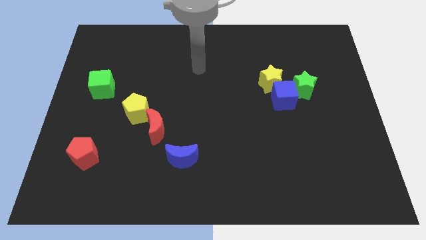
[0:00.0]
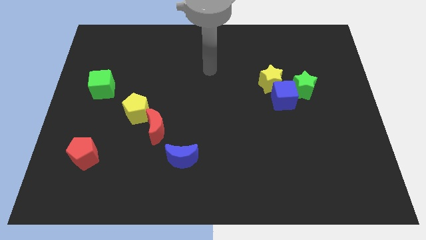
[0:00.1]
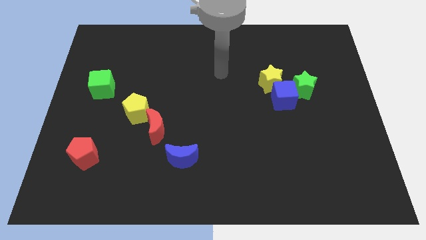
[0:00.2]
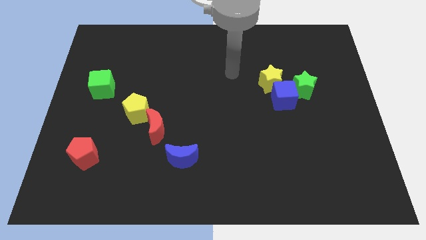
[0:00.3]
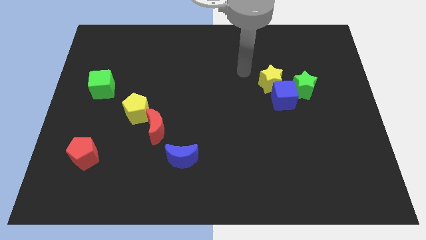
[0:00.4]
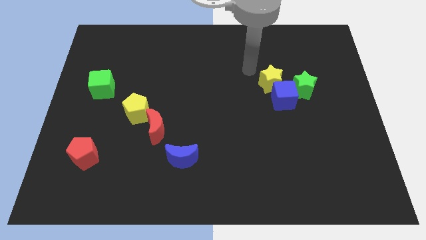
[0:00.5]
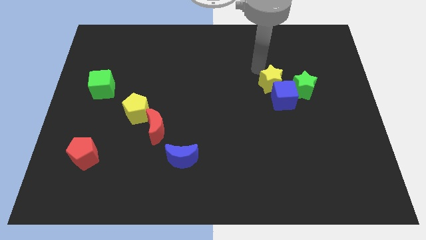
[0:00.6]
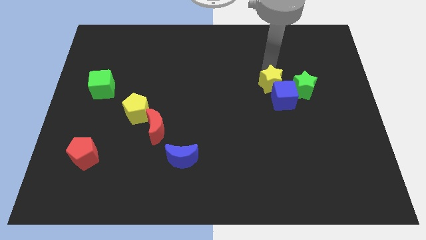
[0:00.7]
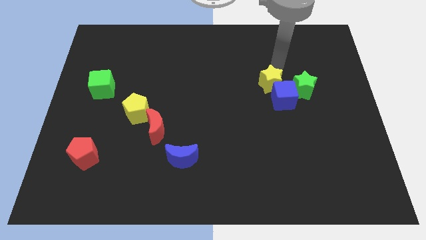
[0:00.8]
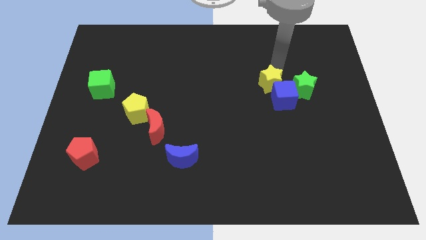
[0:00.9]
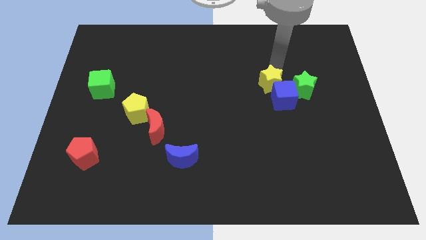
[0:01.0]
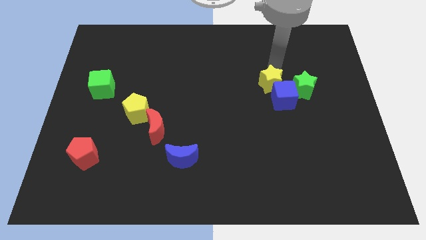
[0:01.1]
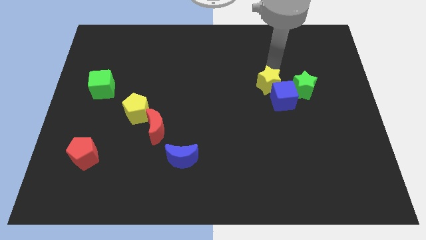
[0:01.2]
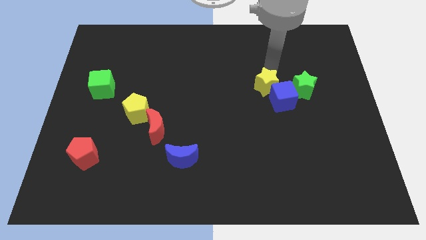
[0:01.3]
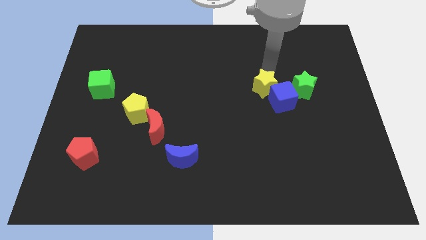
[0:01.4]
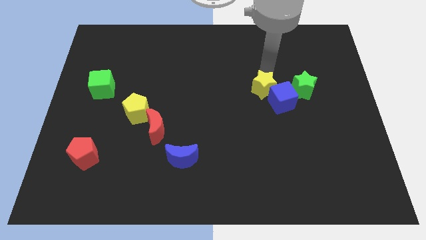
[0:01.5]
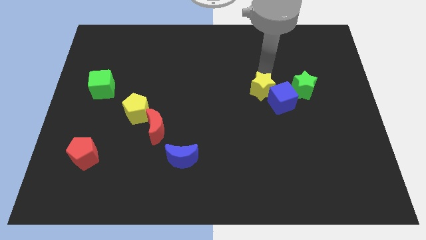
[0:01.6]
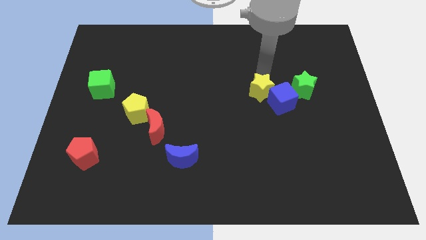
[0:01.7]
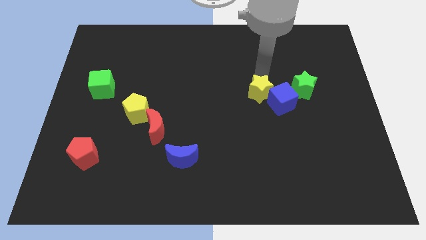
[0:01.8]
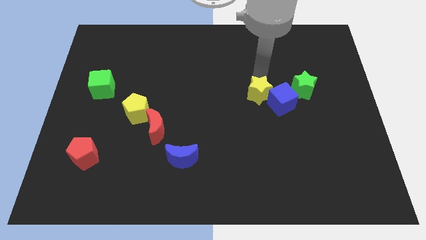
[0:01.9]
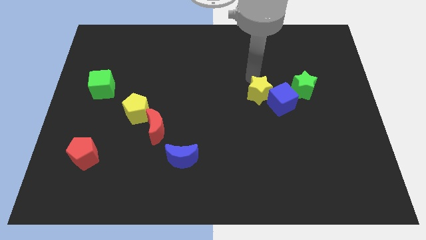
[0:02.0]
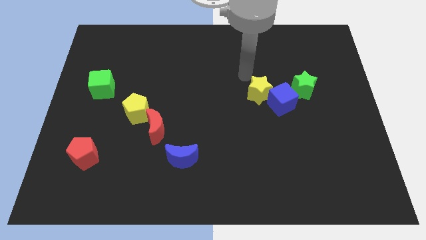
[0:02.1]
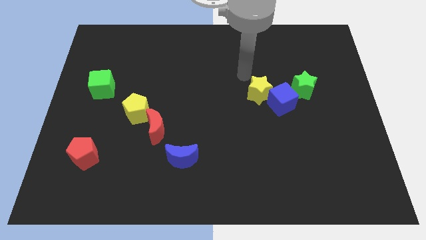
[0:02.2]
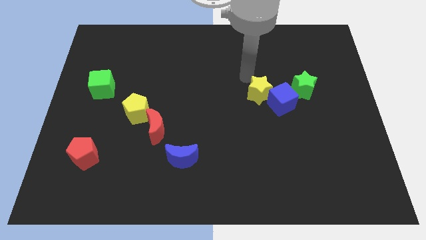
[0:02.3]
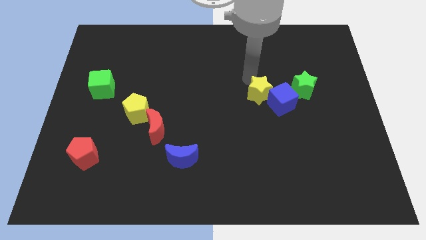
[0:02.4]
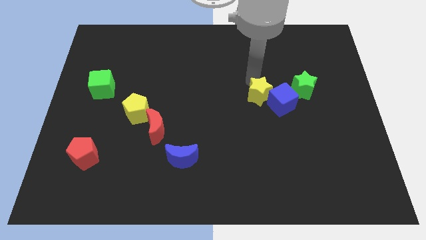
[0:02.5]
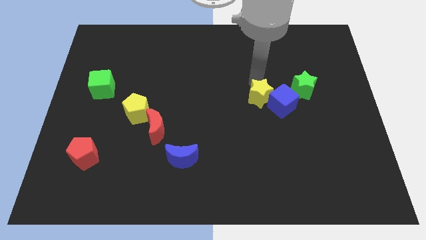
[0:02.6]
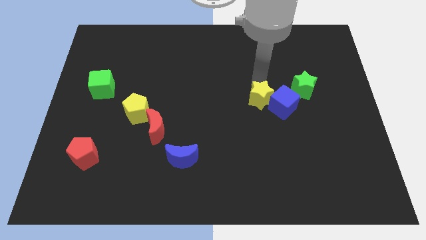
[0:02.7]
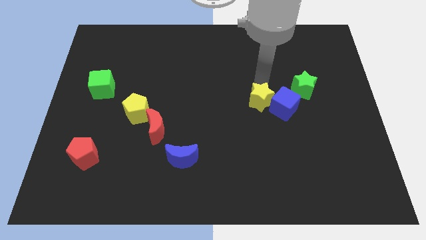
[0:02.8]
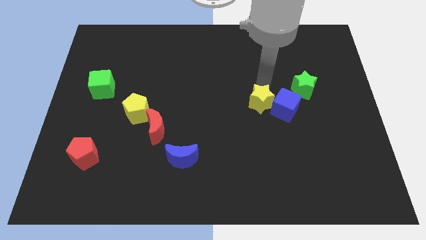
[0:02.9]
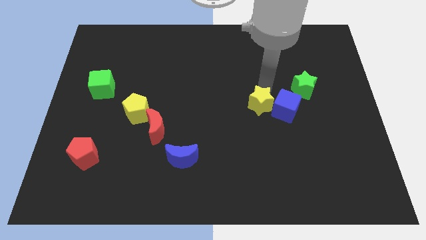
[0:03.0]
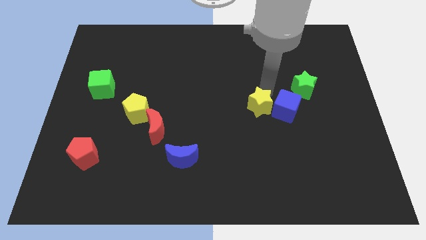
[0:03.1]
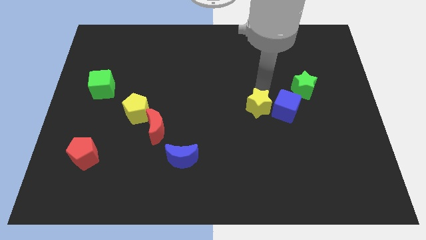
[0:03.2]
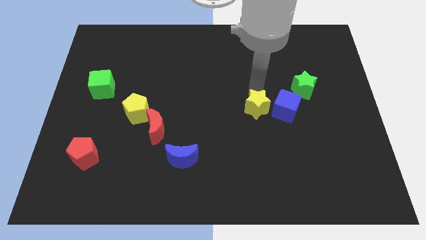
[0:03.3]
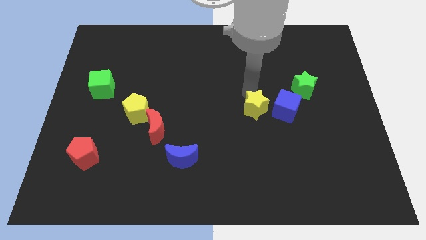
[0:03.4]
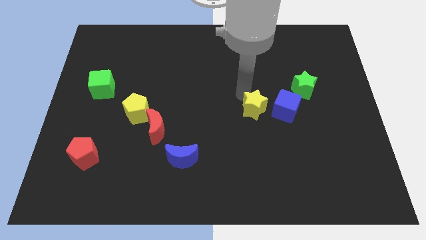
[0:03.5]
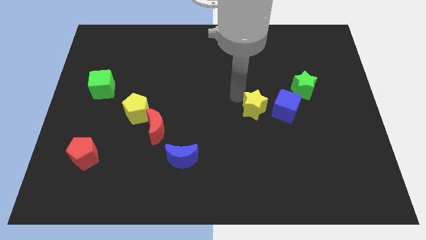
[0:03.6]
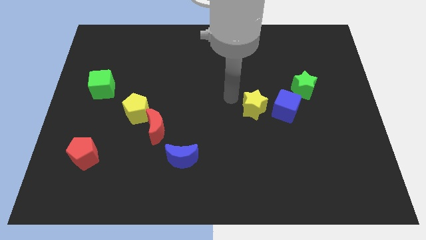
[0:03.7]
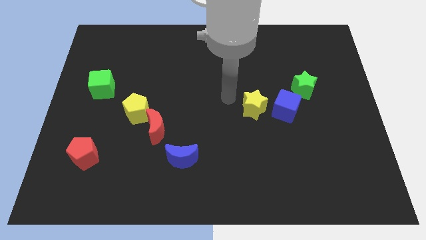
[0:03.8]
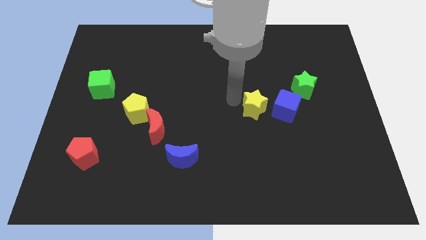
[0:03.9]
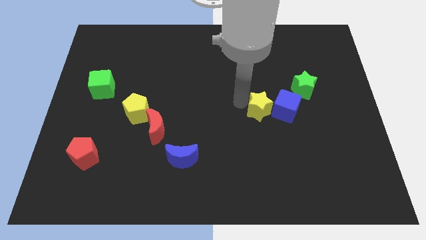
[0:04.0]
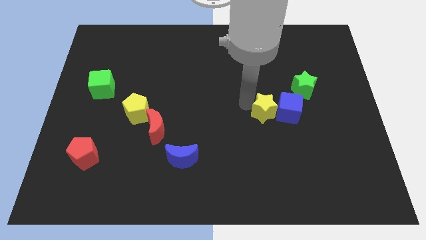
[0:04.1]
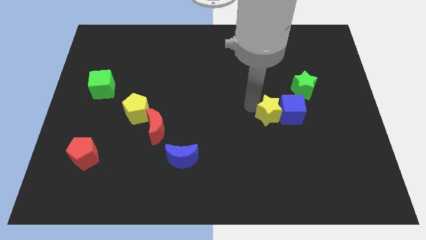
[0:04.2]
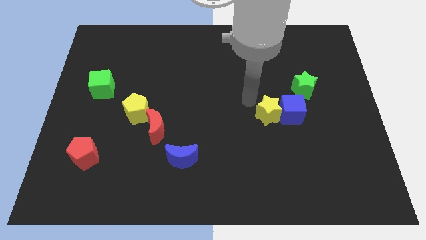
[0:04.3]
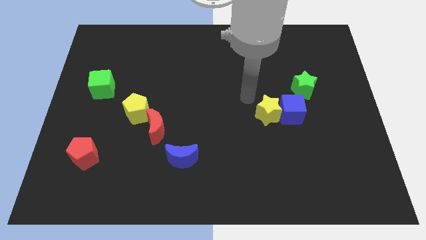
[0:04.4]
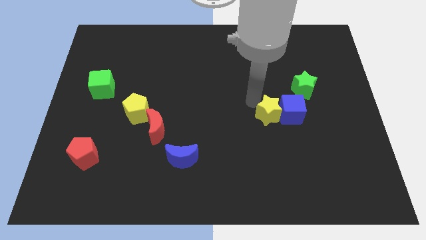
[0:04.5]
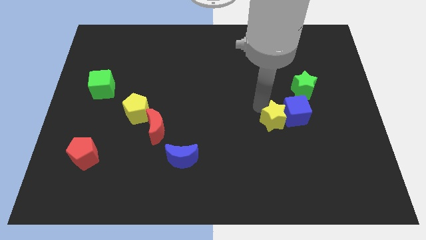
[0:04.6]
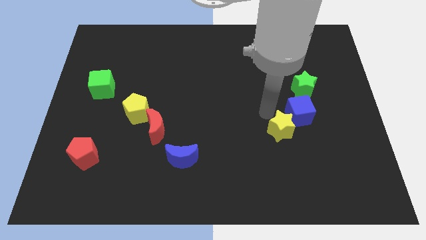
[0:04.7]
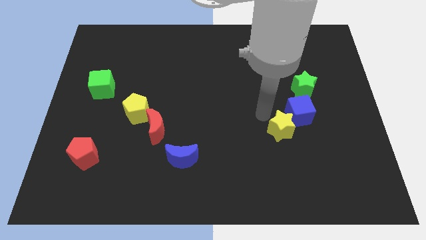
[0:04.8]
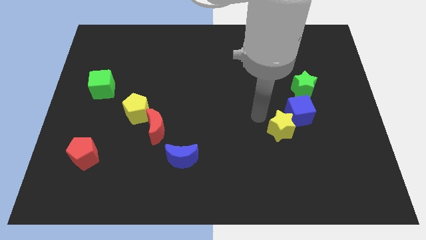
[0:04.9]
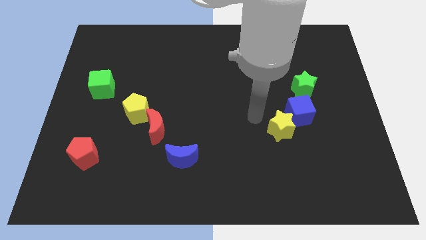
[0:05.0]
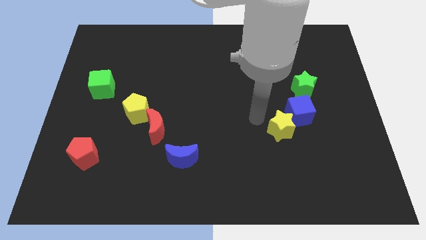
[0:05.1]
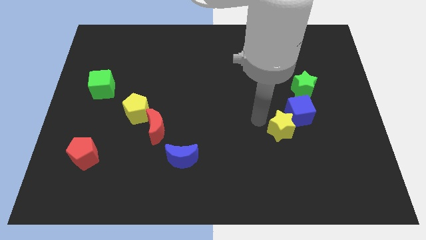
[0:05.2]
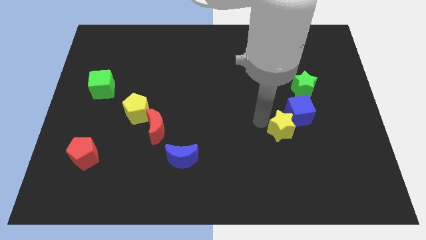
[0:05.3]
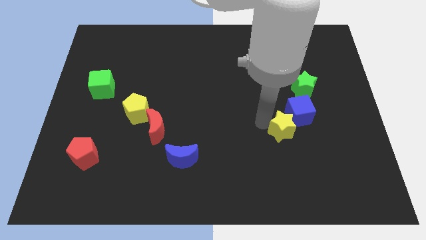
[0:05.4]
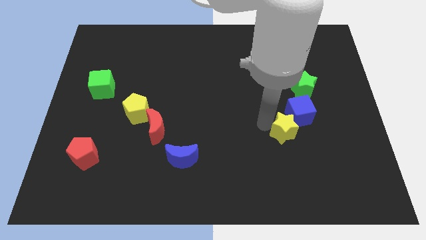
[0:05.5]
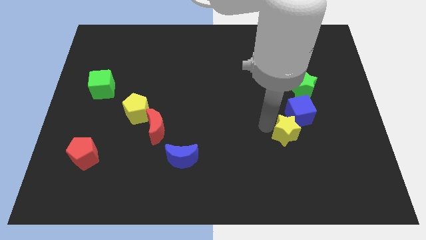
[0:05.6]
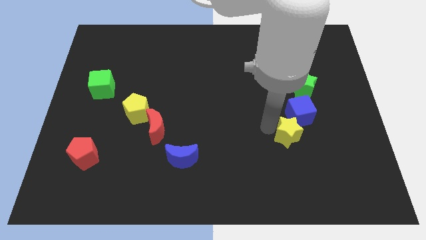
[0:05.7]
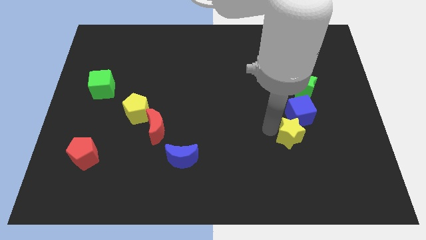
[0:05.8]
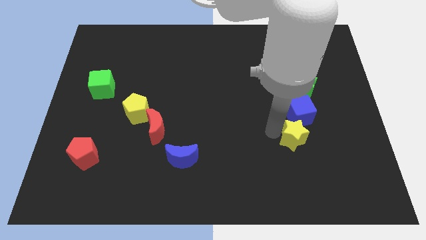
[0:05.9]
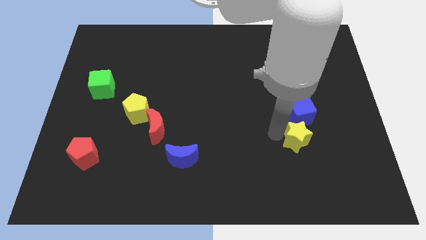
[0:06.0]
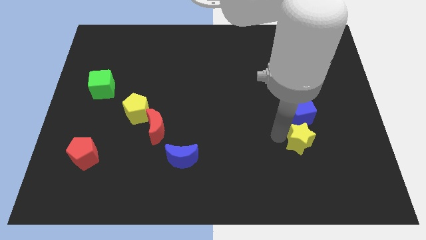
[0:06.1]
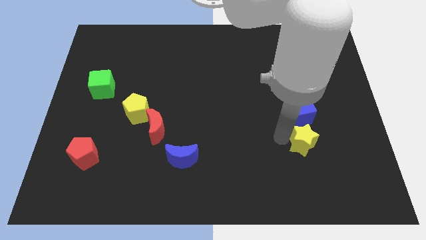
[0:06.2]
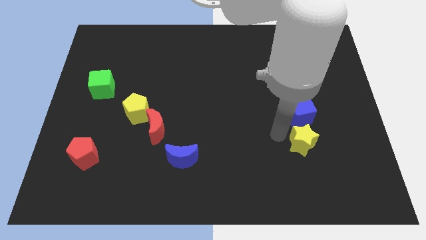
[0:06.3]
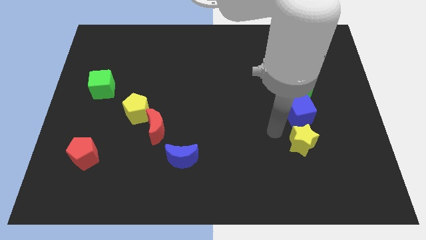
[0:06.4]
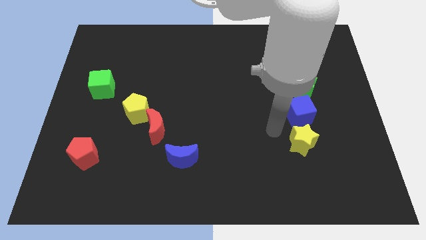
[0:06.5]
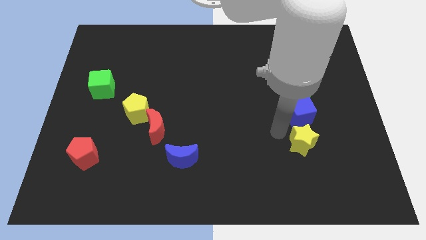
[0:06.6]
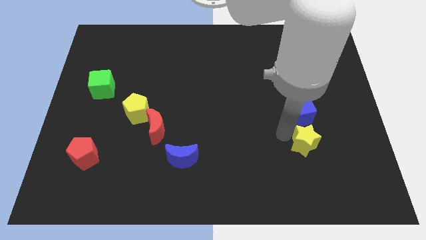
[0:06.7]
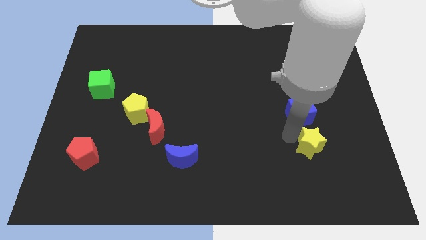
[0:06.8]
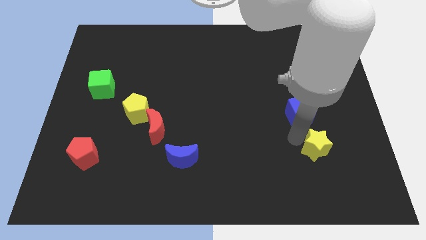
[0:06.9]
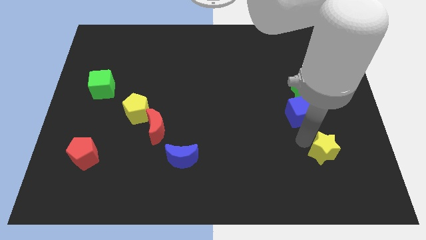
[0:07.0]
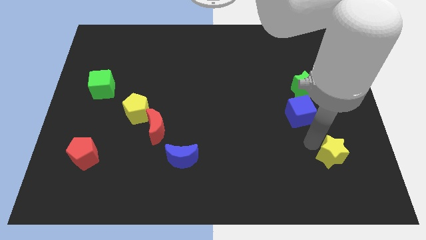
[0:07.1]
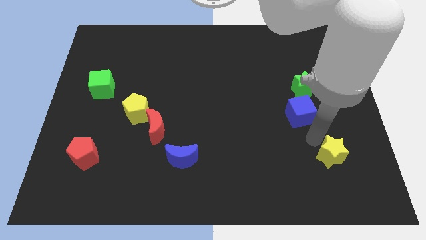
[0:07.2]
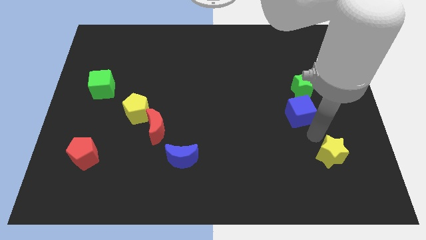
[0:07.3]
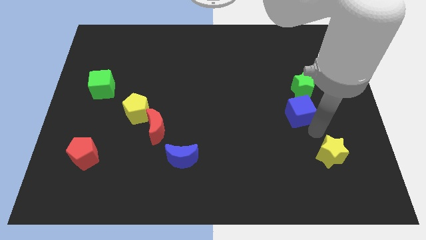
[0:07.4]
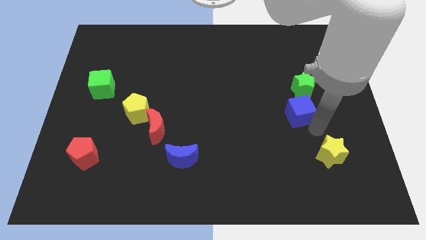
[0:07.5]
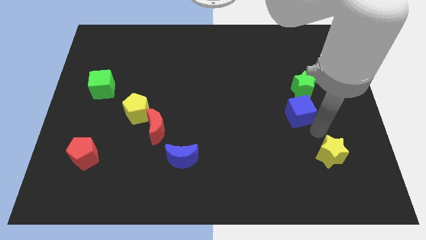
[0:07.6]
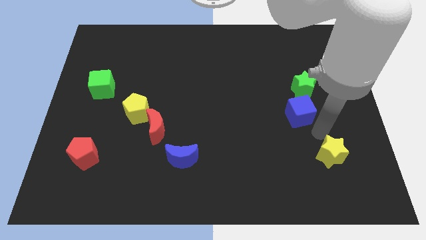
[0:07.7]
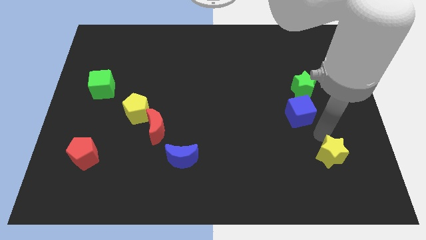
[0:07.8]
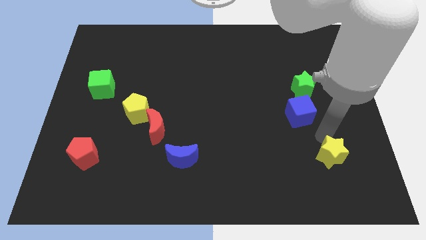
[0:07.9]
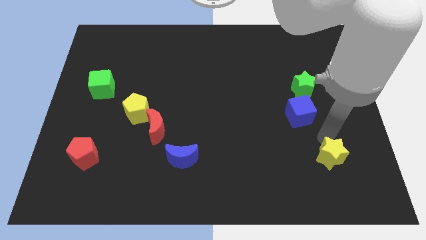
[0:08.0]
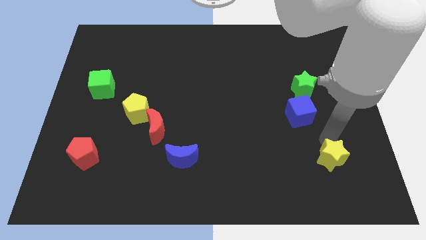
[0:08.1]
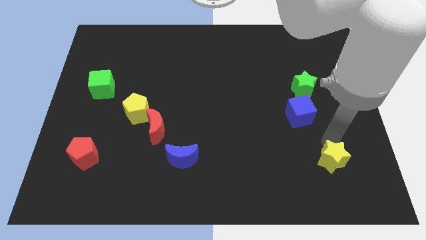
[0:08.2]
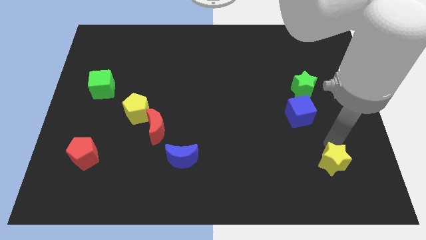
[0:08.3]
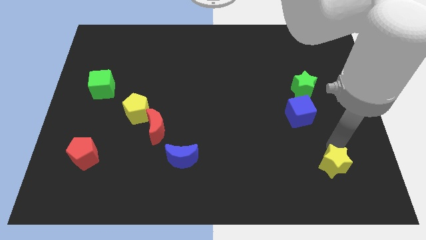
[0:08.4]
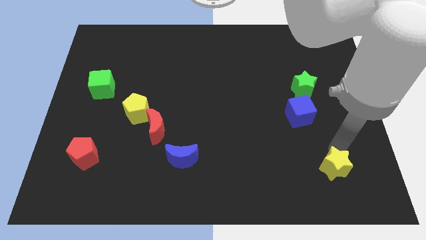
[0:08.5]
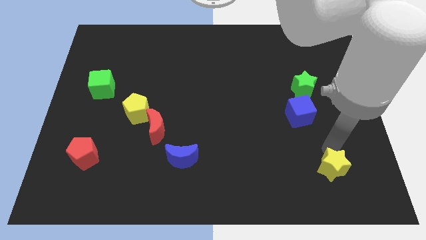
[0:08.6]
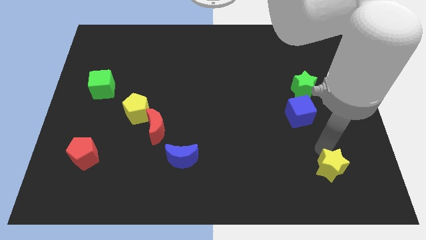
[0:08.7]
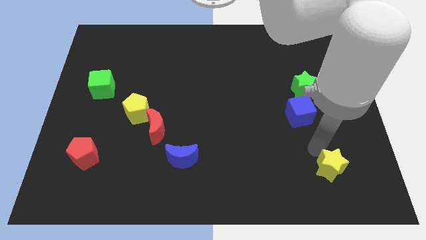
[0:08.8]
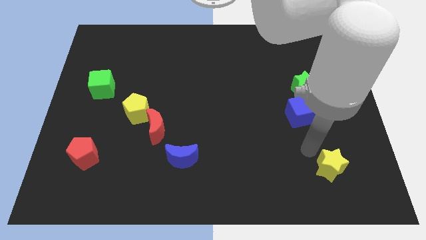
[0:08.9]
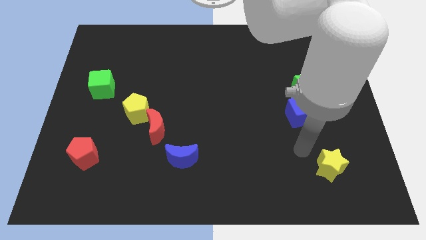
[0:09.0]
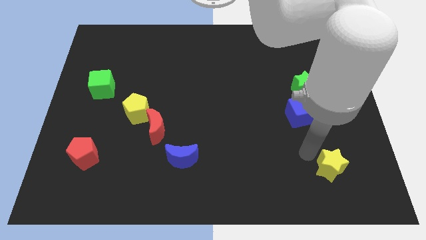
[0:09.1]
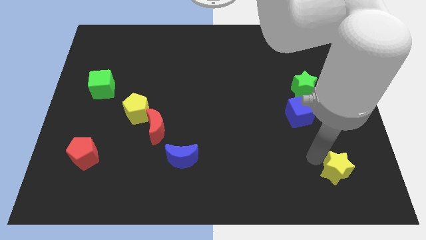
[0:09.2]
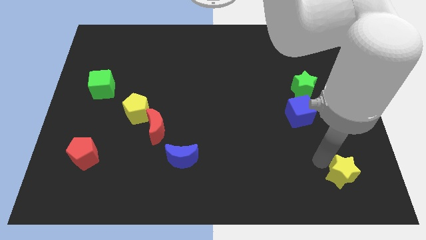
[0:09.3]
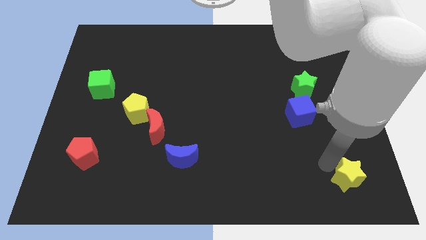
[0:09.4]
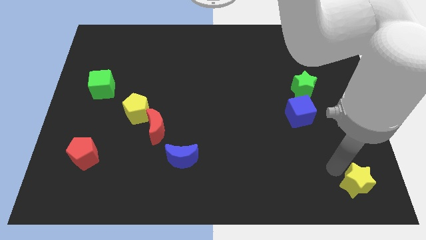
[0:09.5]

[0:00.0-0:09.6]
push the yellow star to the lower right corner
